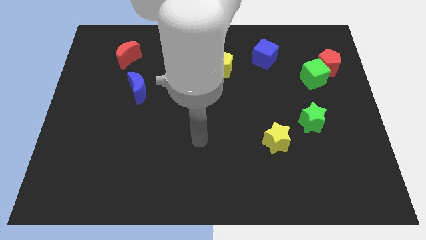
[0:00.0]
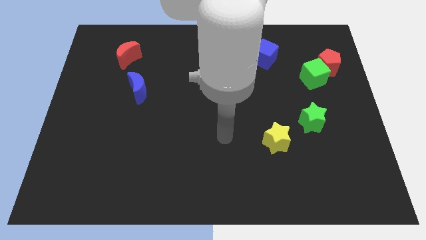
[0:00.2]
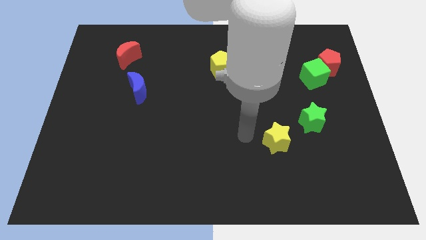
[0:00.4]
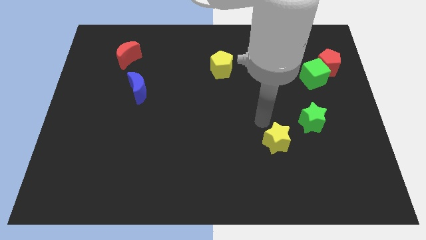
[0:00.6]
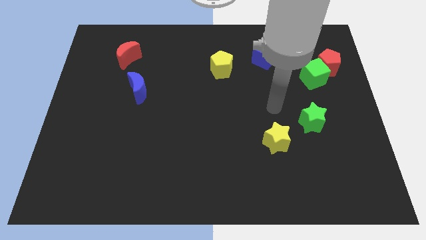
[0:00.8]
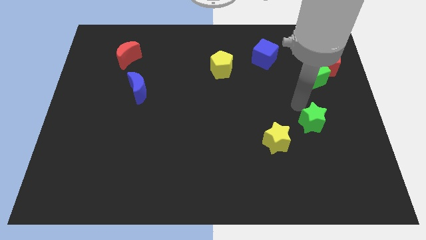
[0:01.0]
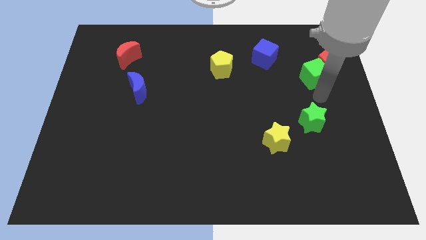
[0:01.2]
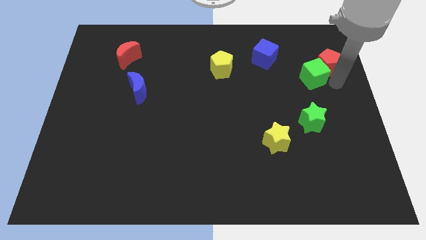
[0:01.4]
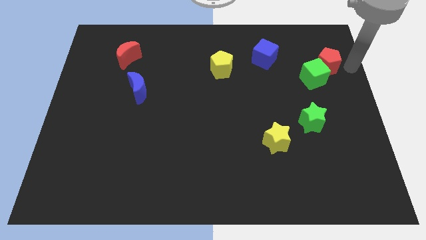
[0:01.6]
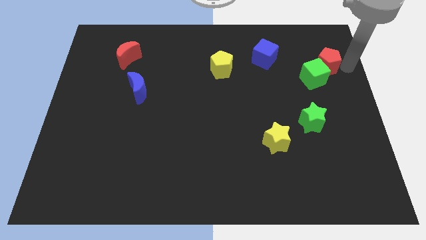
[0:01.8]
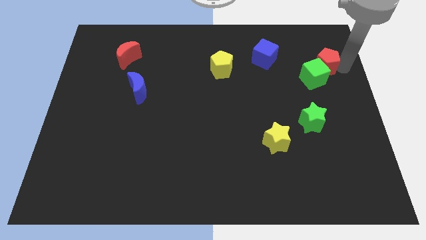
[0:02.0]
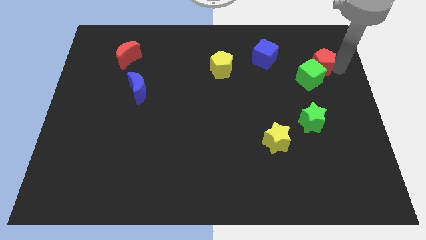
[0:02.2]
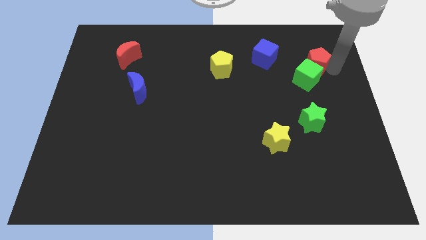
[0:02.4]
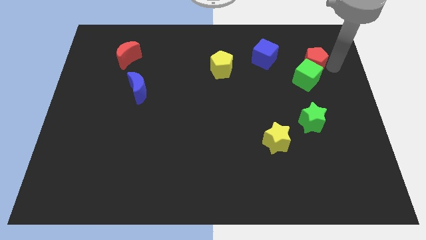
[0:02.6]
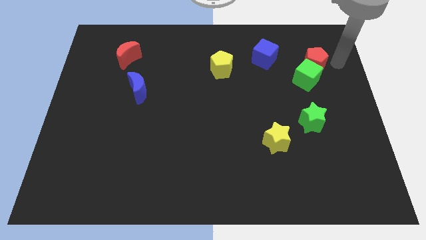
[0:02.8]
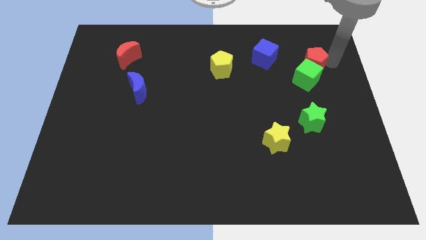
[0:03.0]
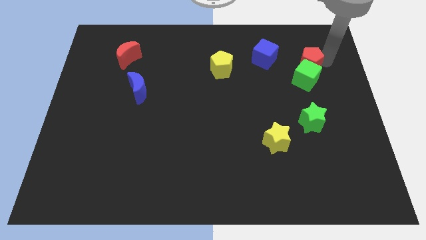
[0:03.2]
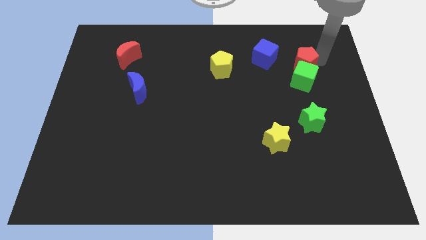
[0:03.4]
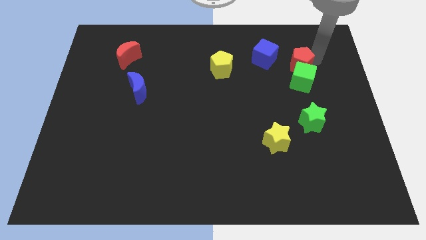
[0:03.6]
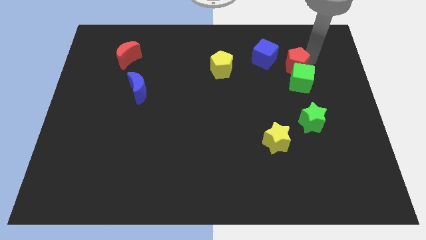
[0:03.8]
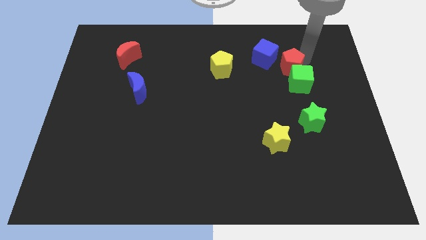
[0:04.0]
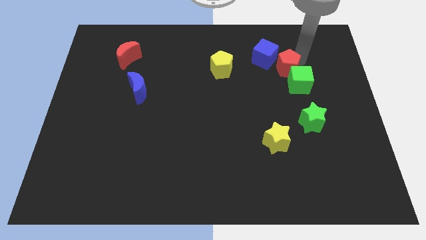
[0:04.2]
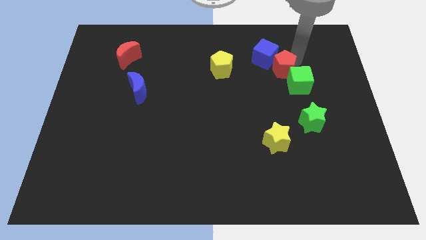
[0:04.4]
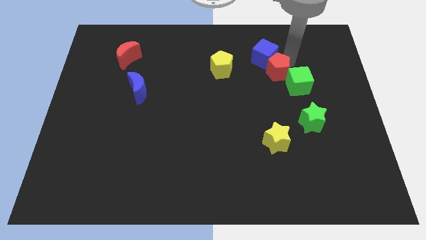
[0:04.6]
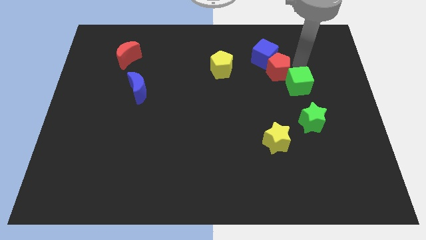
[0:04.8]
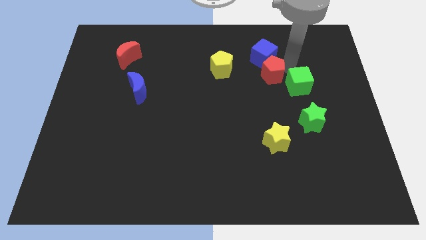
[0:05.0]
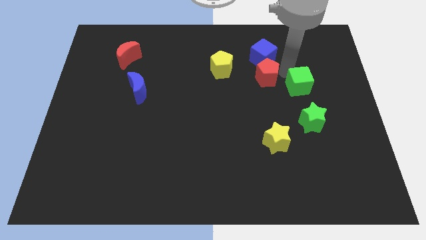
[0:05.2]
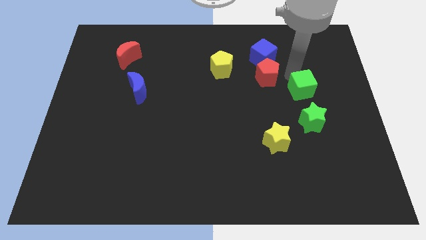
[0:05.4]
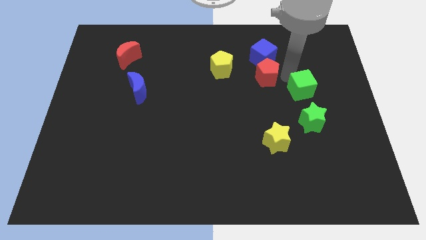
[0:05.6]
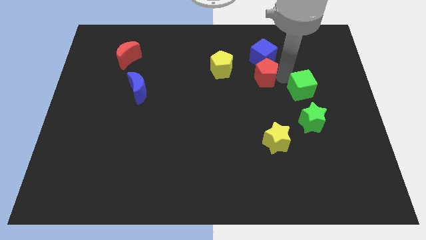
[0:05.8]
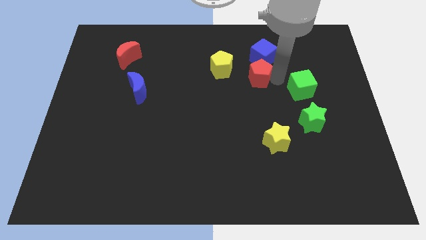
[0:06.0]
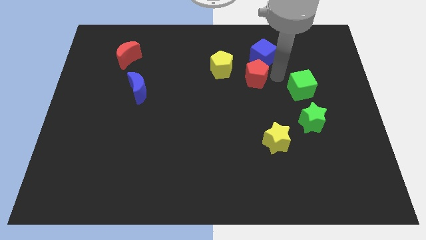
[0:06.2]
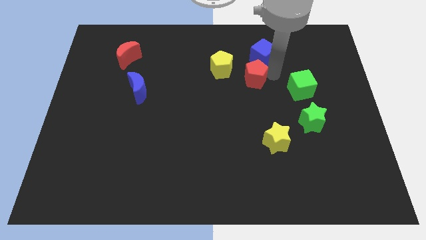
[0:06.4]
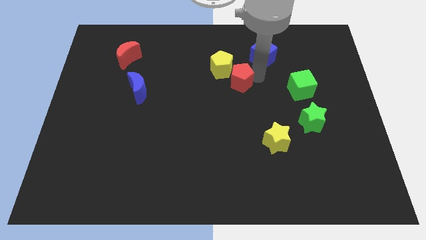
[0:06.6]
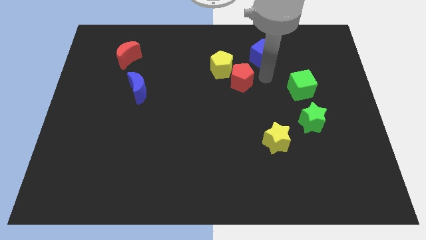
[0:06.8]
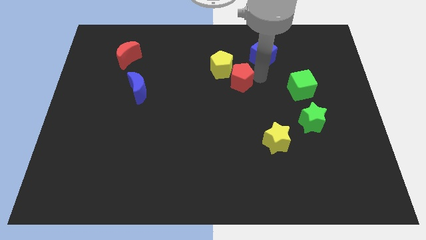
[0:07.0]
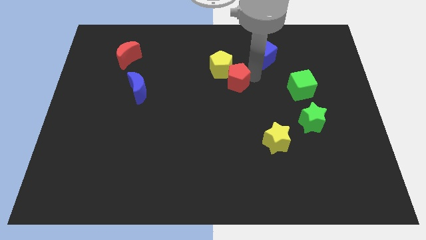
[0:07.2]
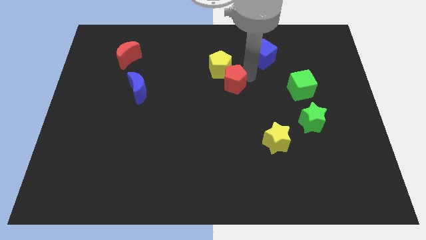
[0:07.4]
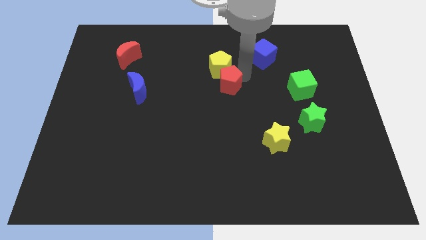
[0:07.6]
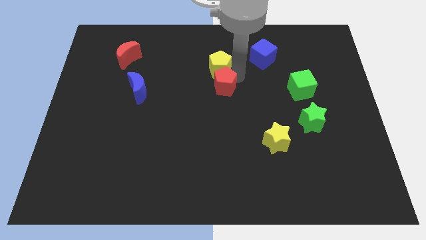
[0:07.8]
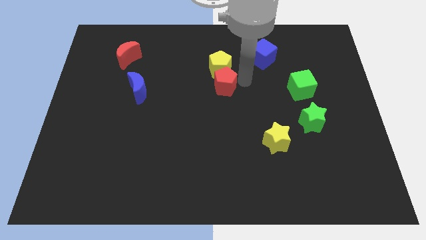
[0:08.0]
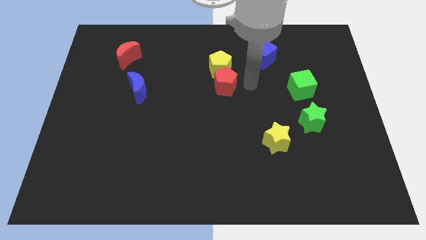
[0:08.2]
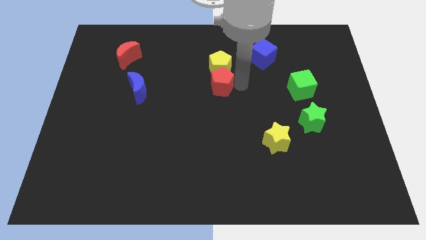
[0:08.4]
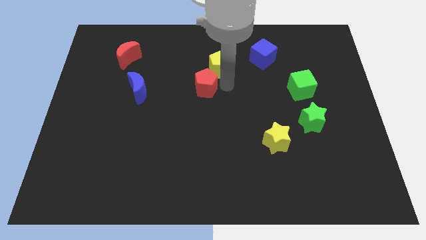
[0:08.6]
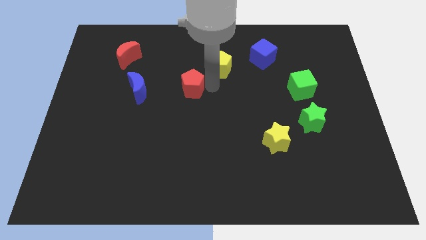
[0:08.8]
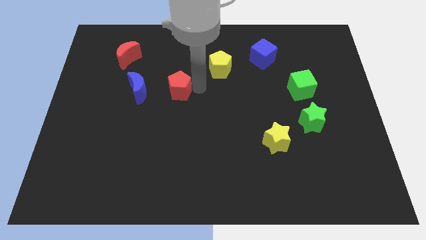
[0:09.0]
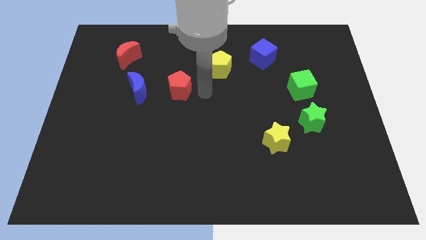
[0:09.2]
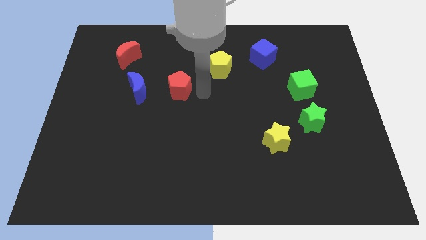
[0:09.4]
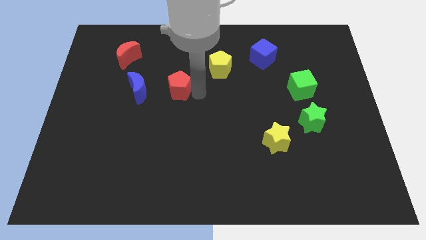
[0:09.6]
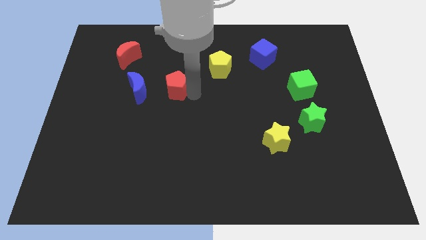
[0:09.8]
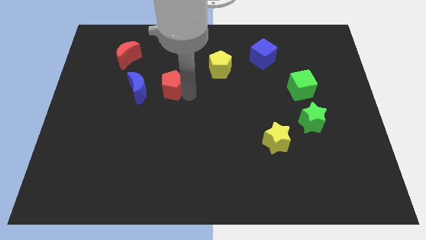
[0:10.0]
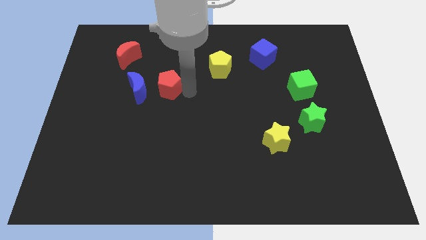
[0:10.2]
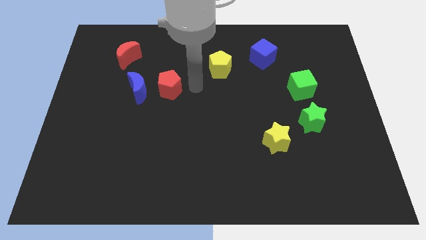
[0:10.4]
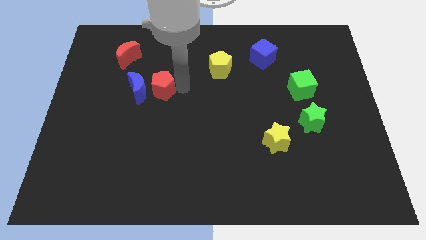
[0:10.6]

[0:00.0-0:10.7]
push the red pentagon next to the blue moon

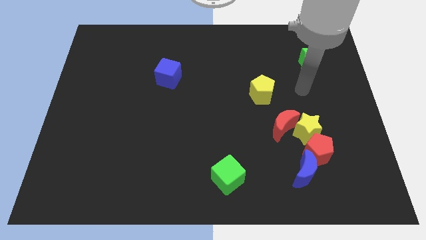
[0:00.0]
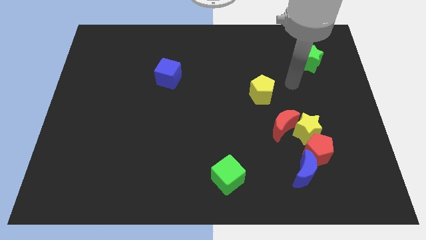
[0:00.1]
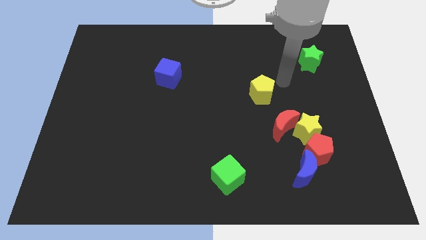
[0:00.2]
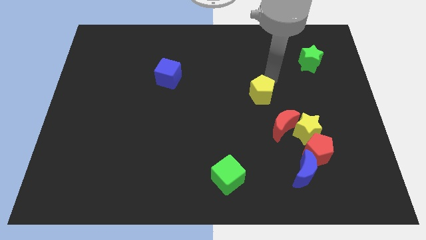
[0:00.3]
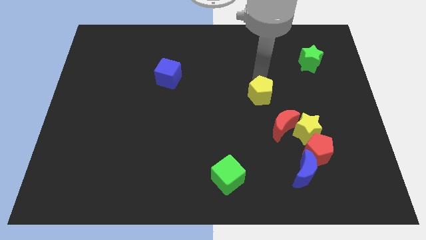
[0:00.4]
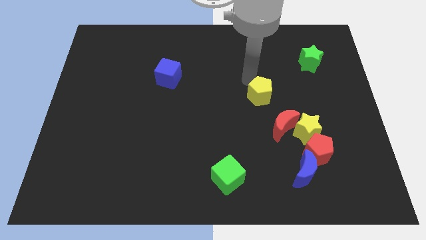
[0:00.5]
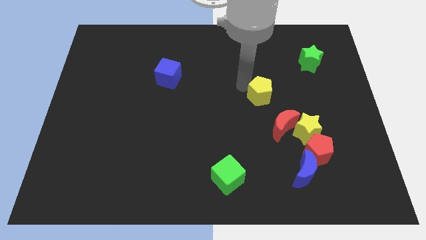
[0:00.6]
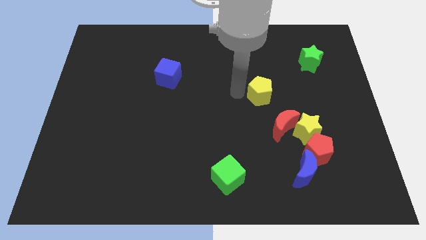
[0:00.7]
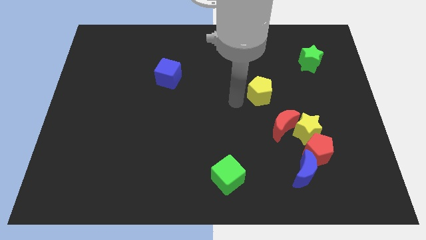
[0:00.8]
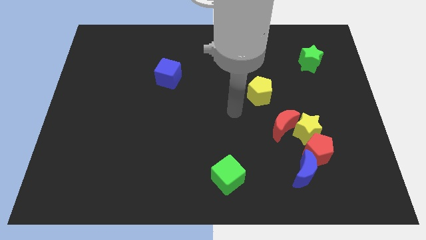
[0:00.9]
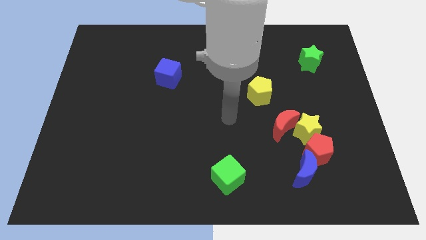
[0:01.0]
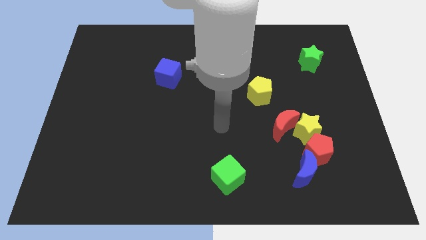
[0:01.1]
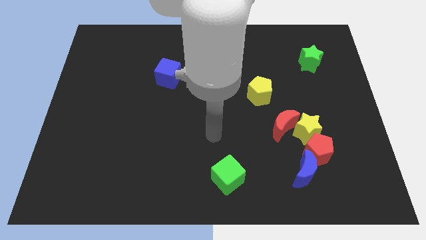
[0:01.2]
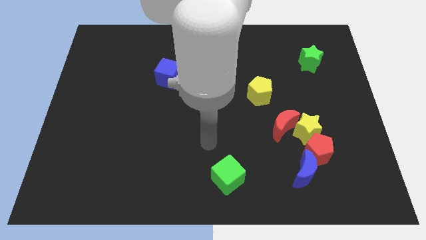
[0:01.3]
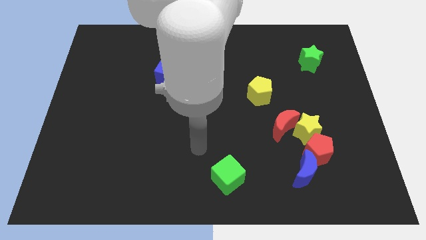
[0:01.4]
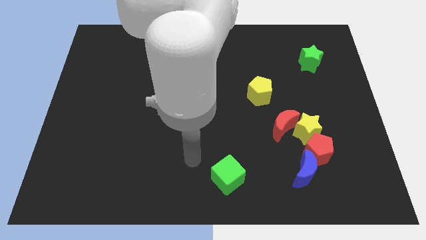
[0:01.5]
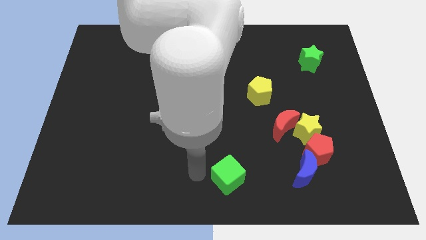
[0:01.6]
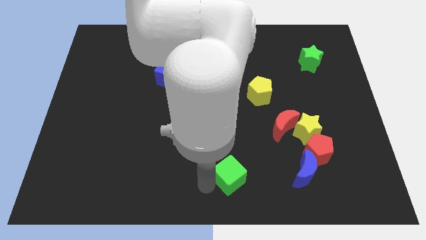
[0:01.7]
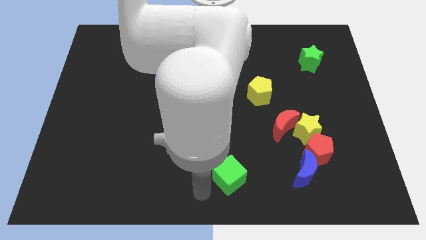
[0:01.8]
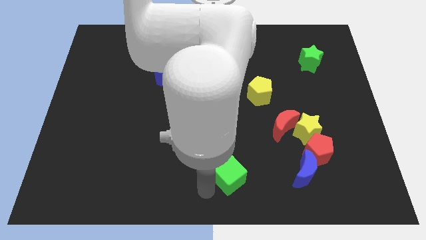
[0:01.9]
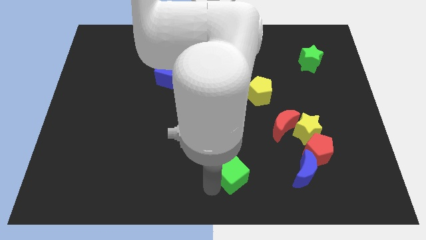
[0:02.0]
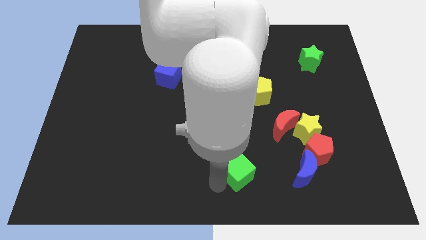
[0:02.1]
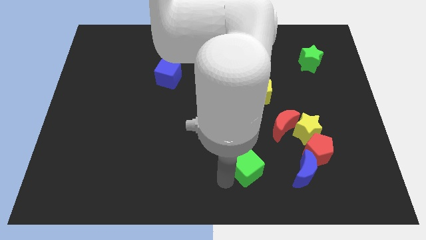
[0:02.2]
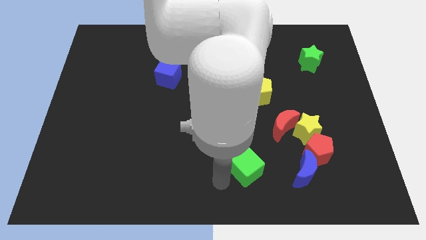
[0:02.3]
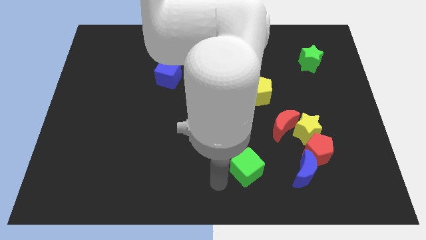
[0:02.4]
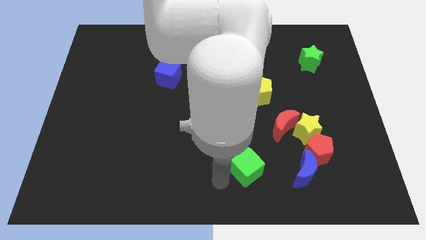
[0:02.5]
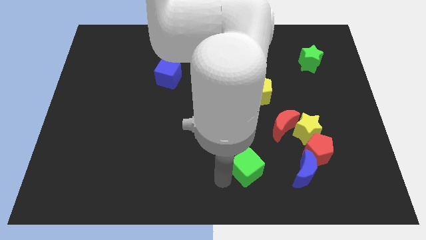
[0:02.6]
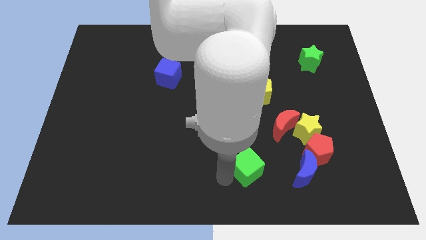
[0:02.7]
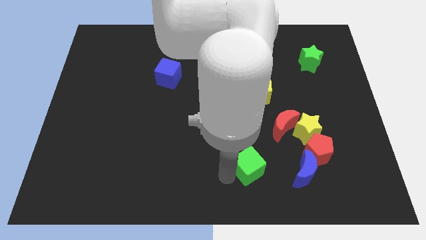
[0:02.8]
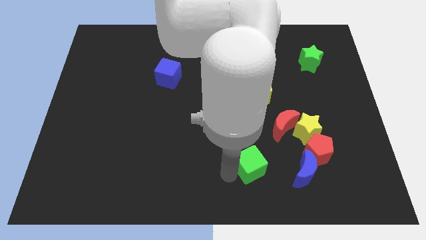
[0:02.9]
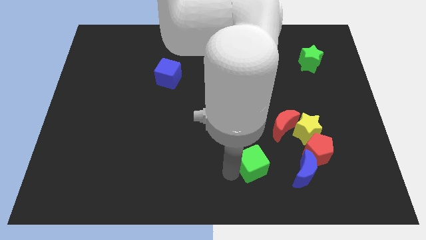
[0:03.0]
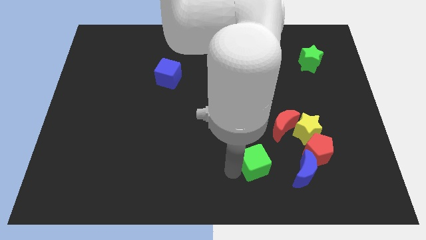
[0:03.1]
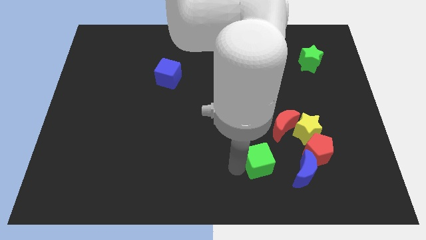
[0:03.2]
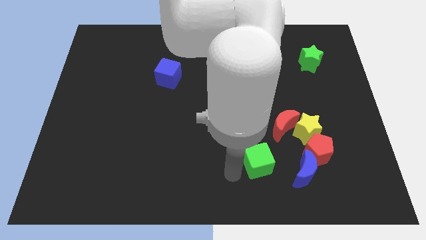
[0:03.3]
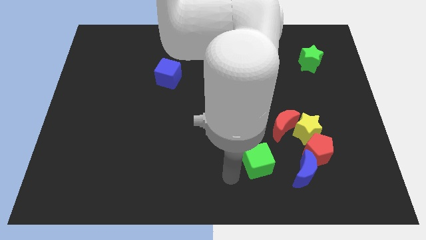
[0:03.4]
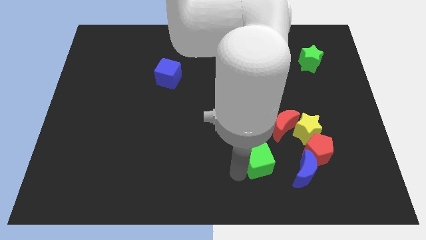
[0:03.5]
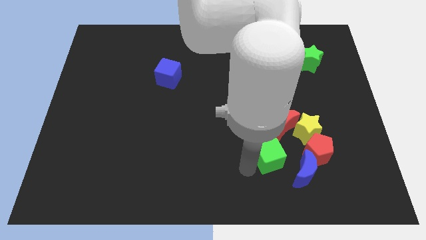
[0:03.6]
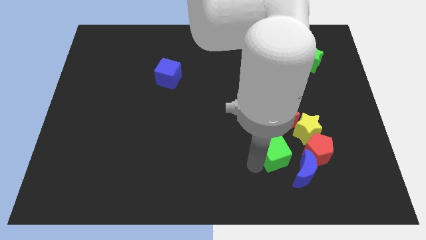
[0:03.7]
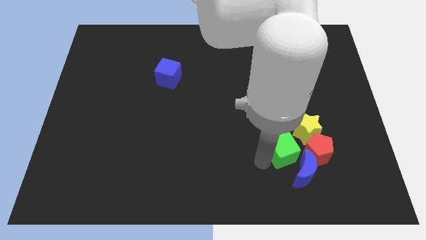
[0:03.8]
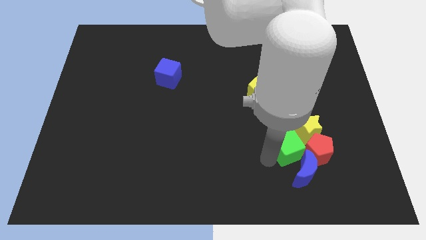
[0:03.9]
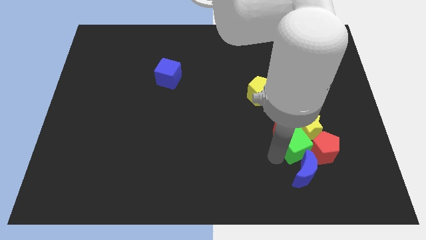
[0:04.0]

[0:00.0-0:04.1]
move the green cube next to the yellow star
